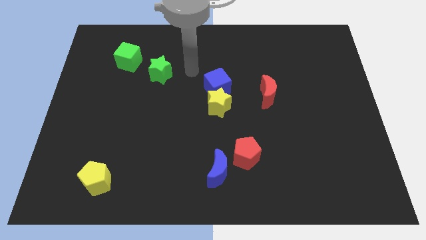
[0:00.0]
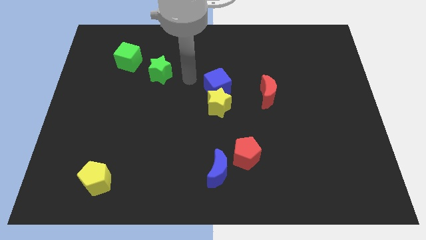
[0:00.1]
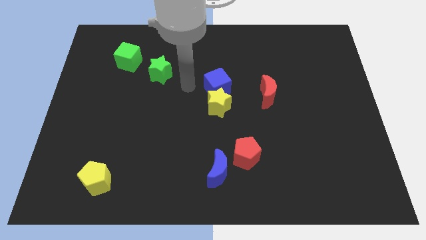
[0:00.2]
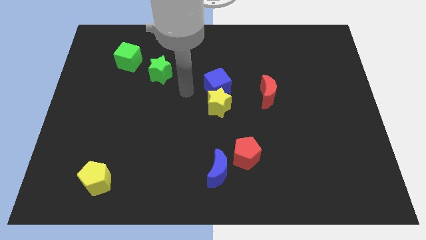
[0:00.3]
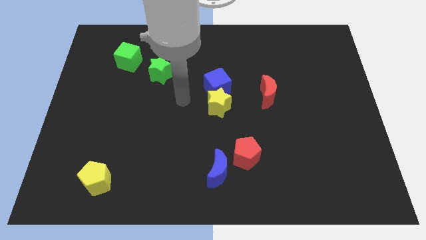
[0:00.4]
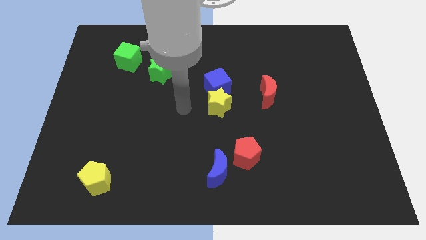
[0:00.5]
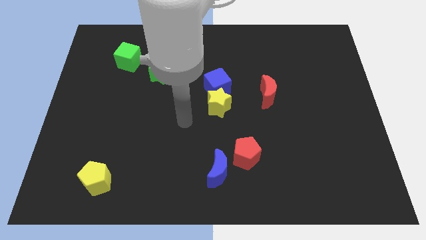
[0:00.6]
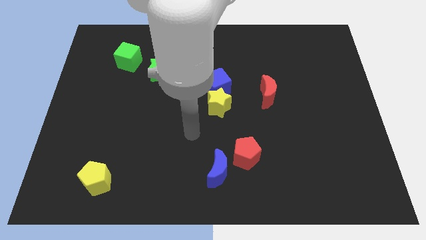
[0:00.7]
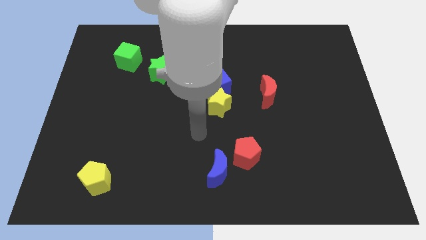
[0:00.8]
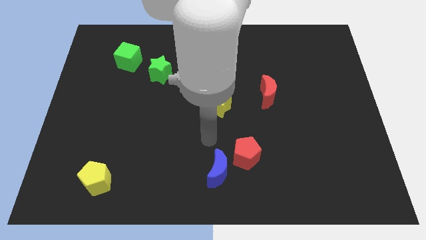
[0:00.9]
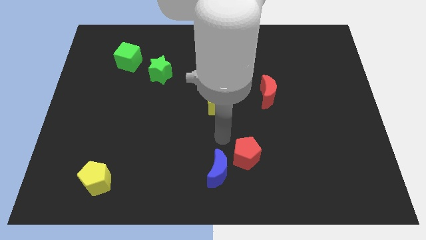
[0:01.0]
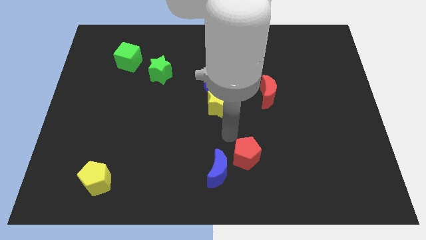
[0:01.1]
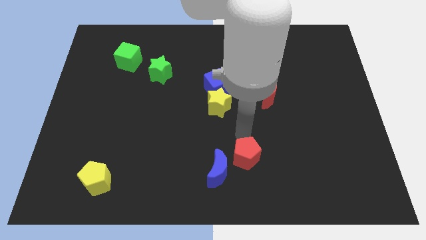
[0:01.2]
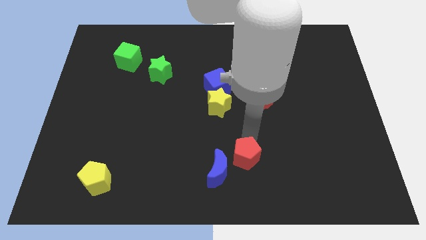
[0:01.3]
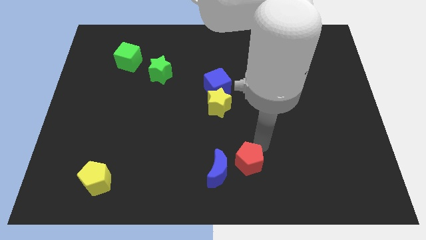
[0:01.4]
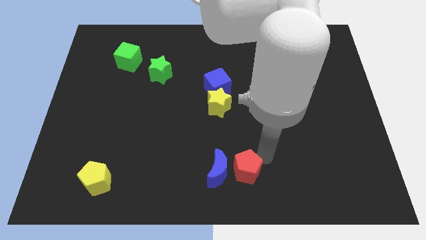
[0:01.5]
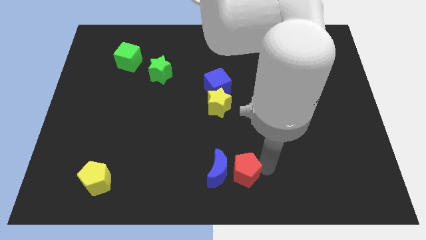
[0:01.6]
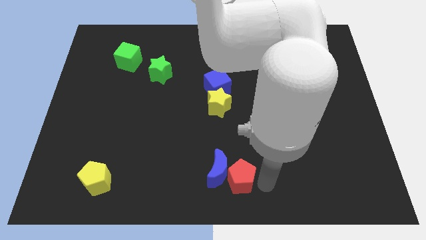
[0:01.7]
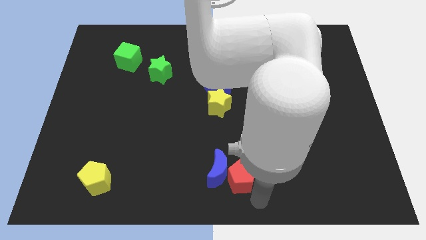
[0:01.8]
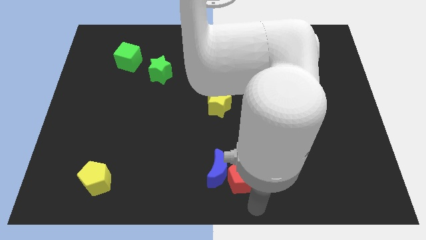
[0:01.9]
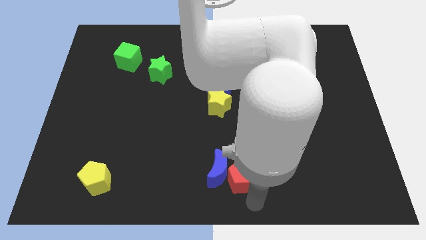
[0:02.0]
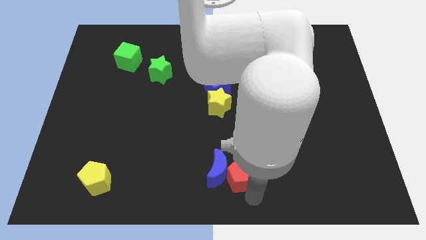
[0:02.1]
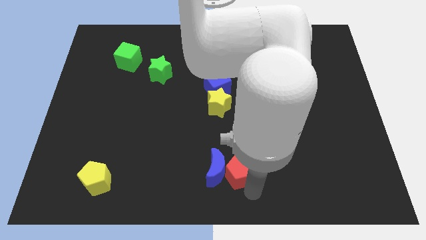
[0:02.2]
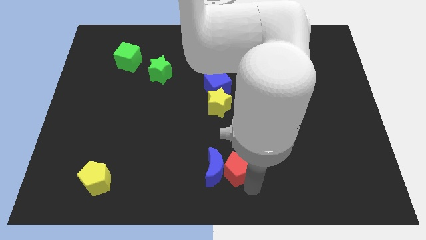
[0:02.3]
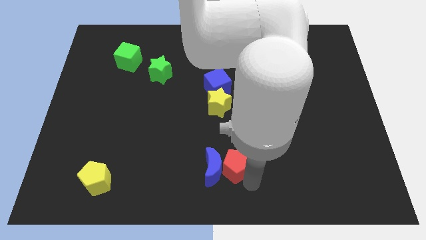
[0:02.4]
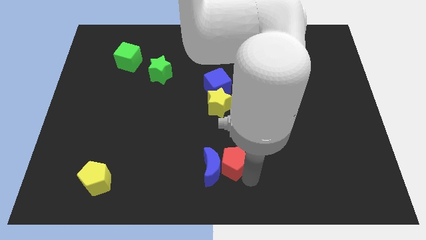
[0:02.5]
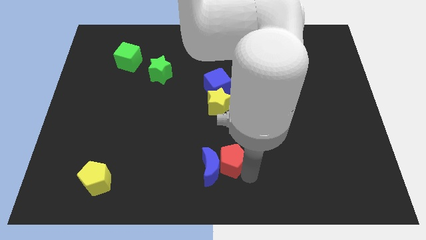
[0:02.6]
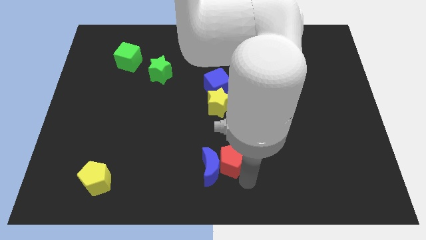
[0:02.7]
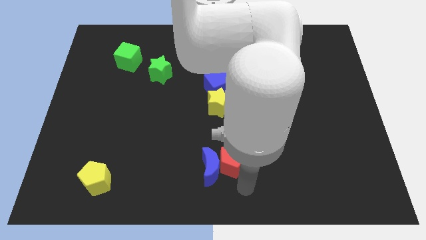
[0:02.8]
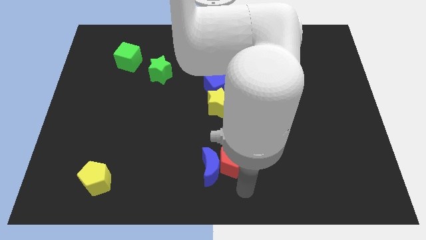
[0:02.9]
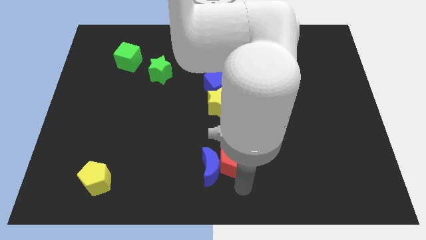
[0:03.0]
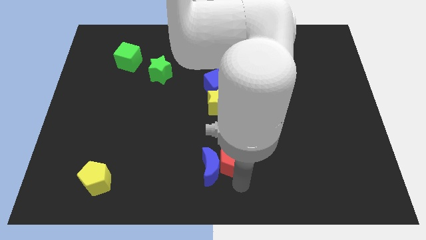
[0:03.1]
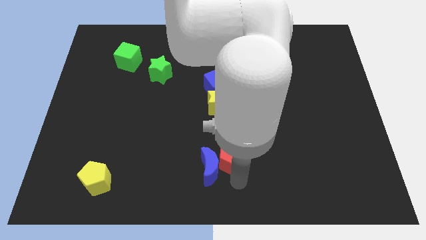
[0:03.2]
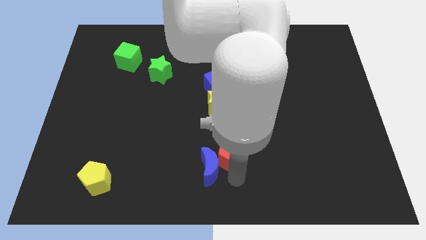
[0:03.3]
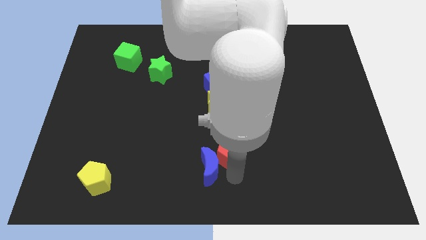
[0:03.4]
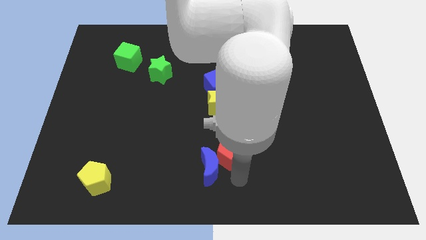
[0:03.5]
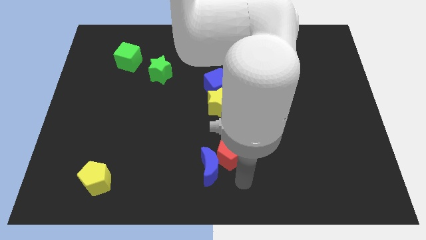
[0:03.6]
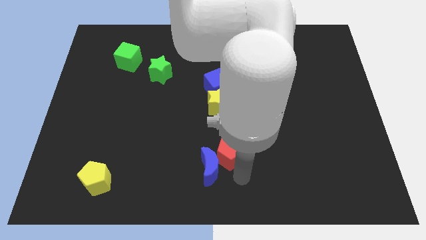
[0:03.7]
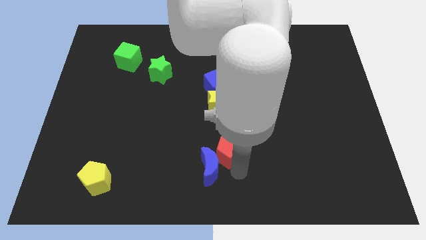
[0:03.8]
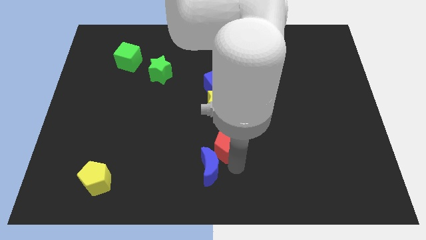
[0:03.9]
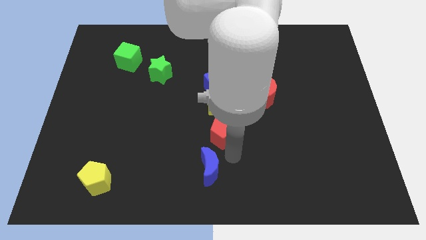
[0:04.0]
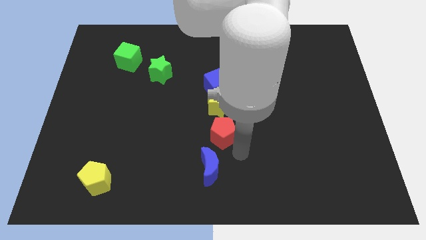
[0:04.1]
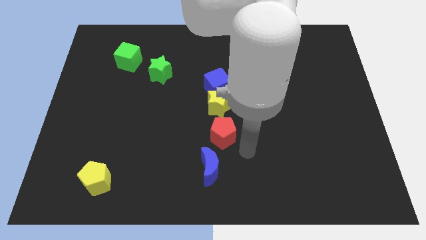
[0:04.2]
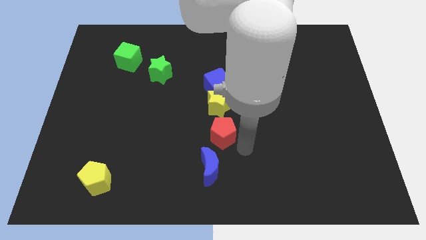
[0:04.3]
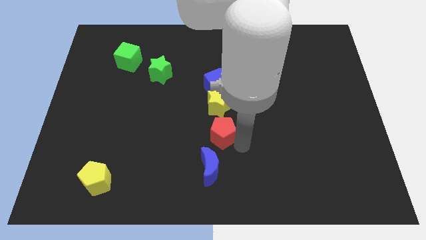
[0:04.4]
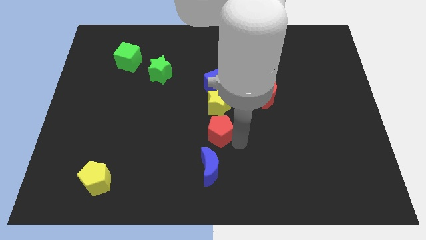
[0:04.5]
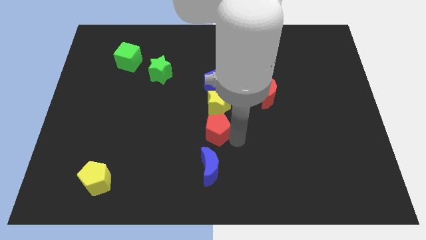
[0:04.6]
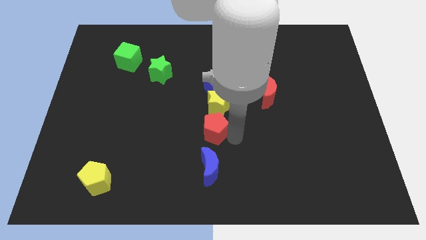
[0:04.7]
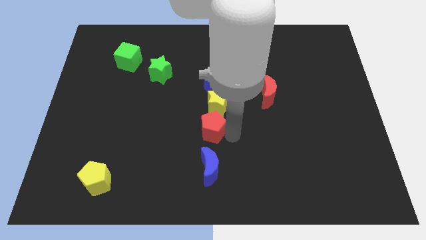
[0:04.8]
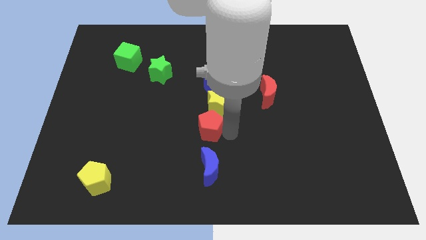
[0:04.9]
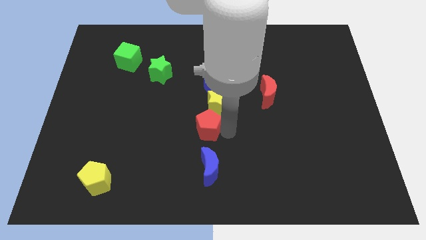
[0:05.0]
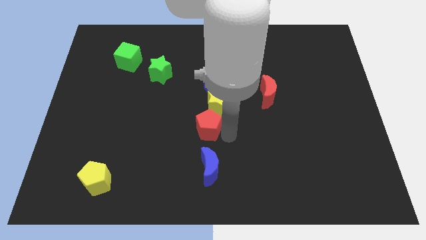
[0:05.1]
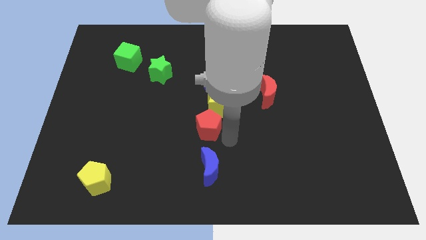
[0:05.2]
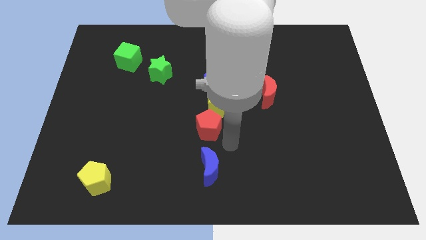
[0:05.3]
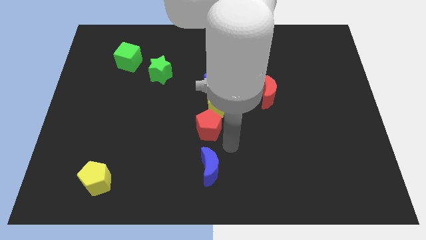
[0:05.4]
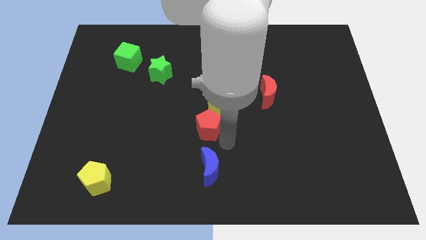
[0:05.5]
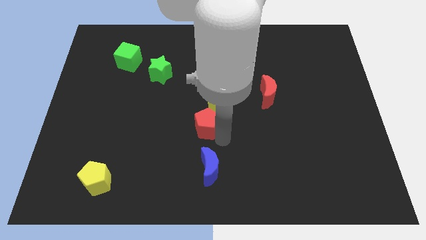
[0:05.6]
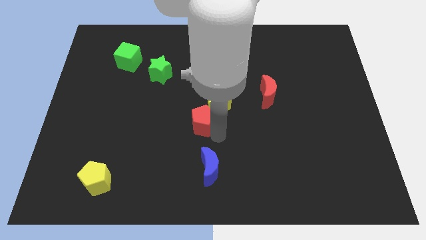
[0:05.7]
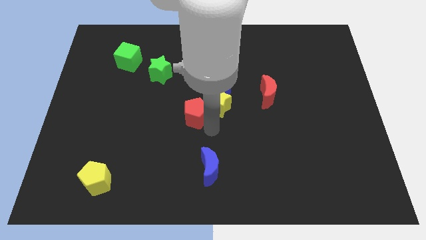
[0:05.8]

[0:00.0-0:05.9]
slide the red pentagon left of the yellow star

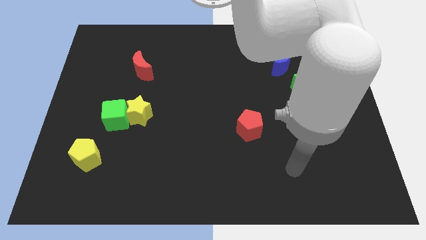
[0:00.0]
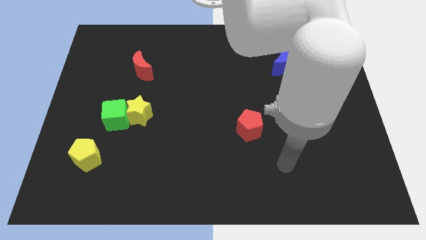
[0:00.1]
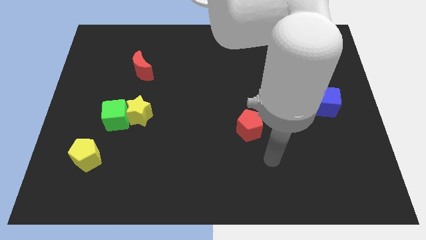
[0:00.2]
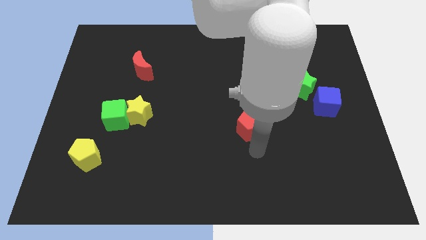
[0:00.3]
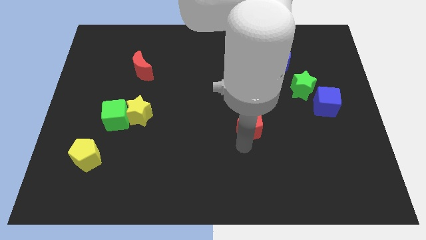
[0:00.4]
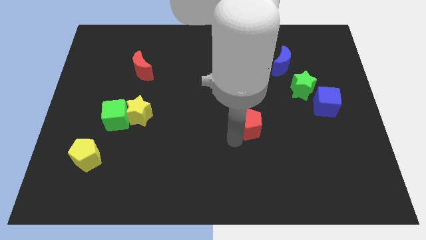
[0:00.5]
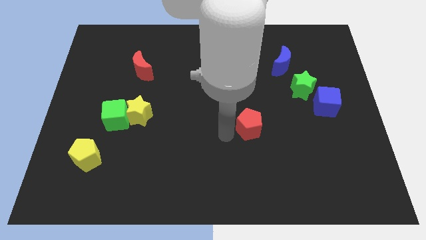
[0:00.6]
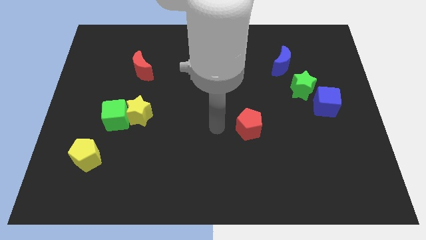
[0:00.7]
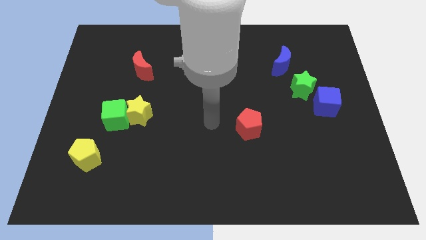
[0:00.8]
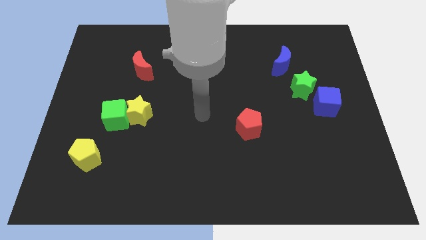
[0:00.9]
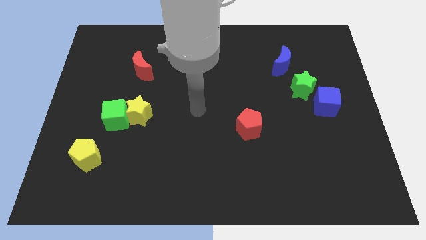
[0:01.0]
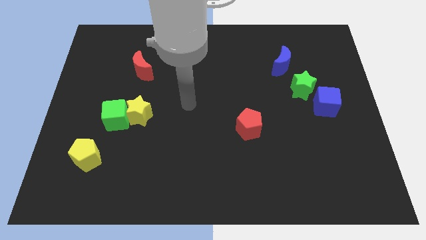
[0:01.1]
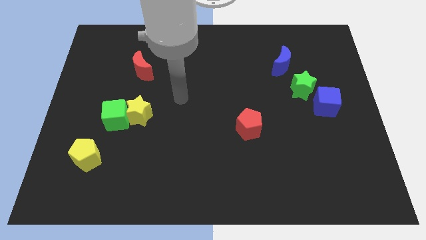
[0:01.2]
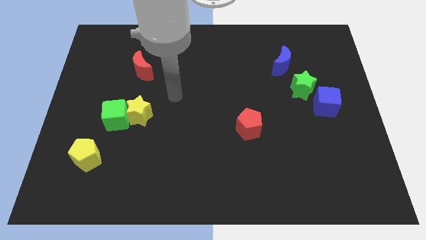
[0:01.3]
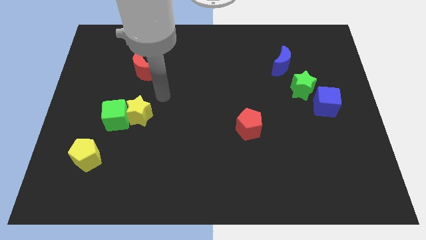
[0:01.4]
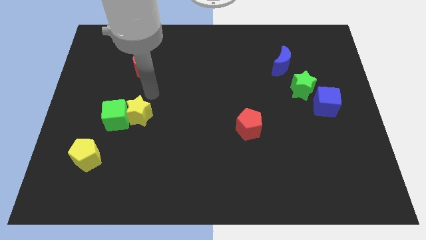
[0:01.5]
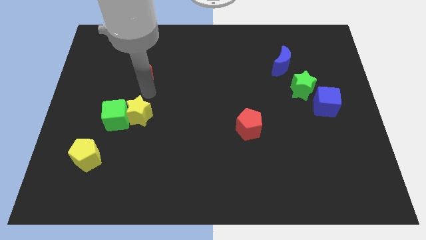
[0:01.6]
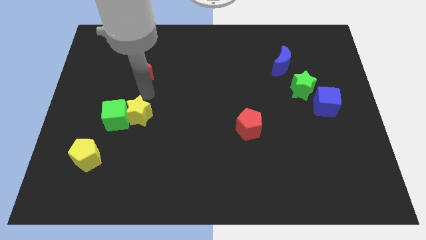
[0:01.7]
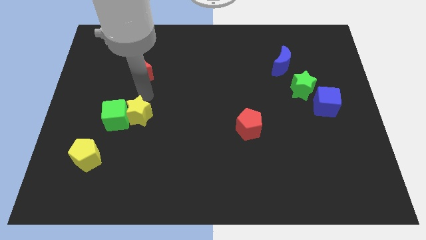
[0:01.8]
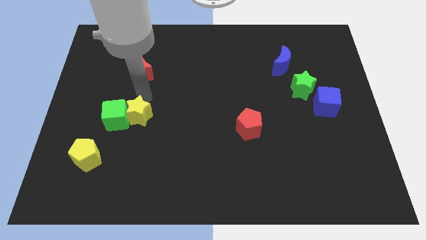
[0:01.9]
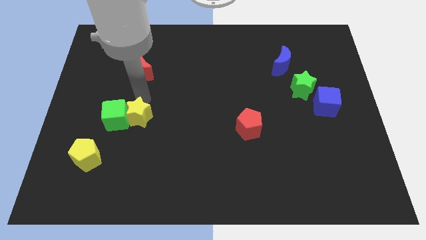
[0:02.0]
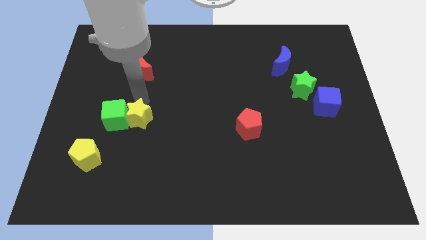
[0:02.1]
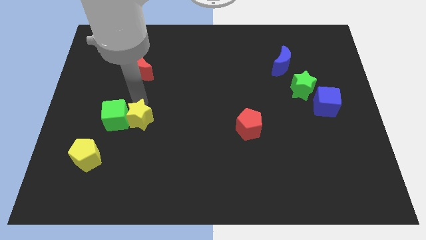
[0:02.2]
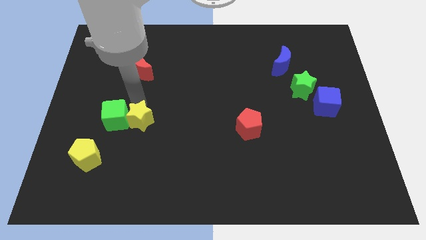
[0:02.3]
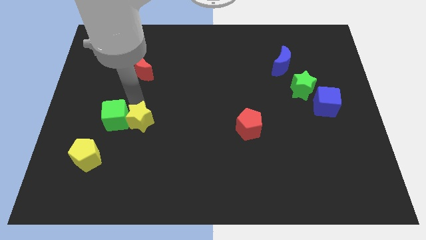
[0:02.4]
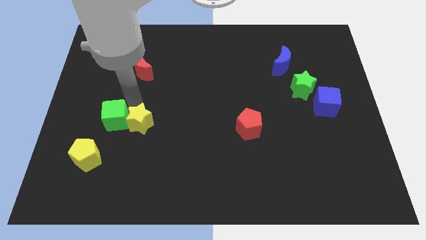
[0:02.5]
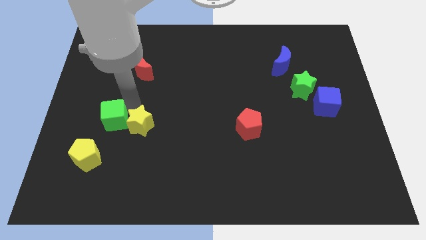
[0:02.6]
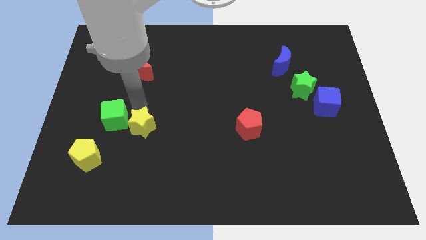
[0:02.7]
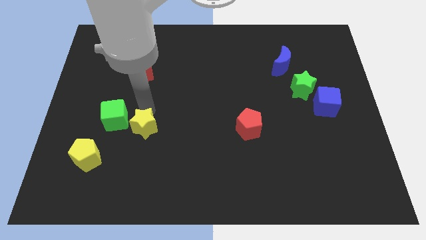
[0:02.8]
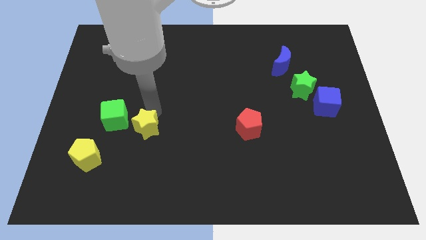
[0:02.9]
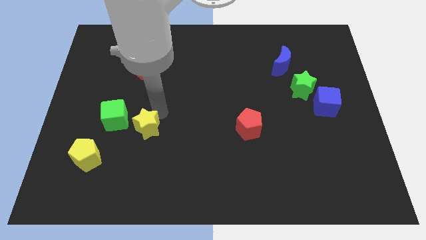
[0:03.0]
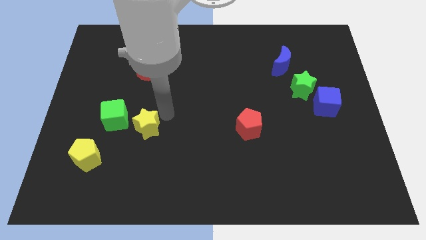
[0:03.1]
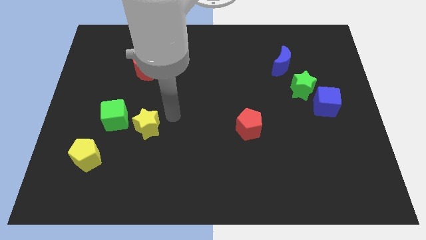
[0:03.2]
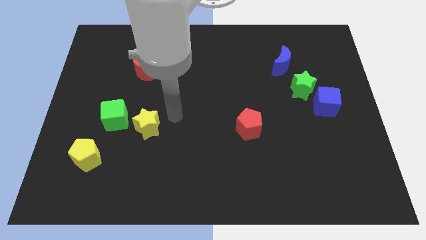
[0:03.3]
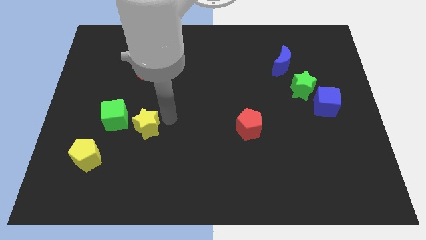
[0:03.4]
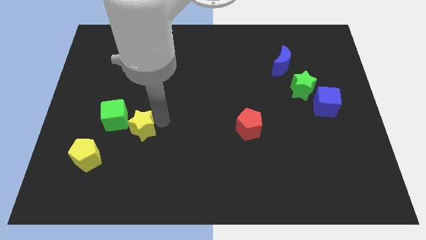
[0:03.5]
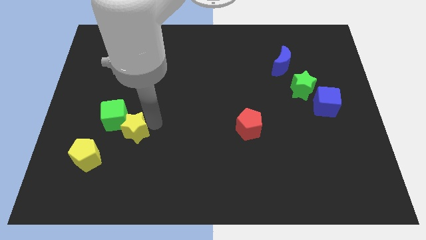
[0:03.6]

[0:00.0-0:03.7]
slide the yellow star to the top right side of the yellow pentagon
